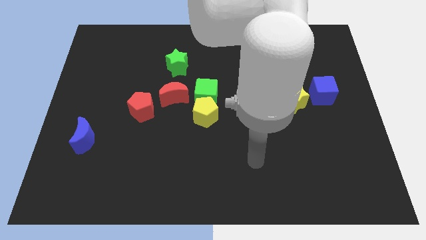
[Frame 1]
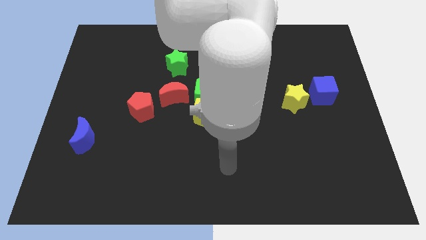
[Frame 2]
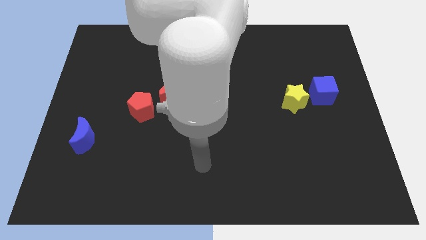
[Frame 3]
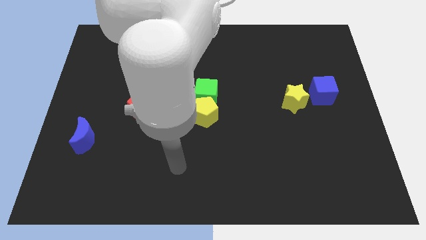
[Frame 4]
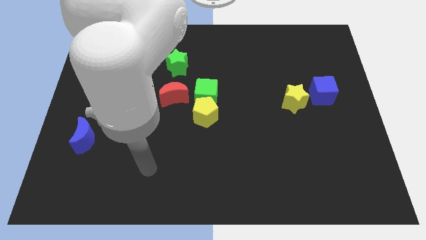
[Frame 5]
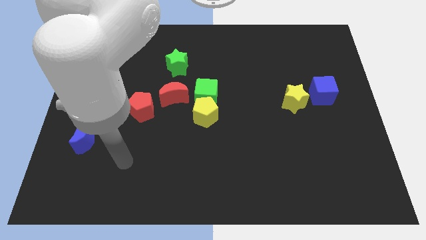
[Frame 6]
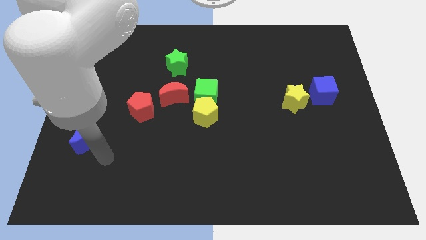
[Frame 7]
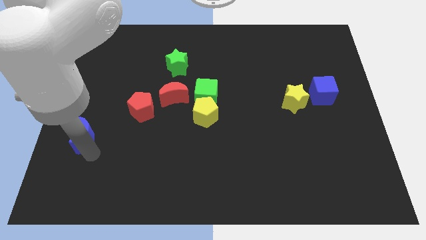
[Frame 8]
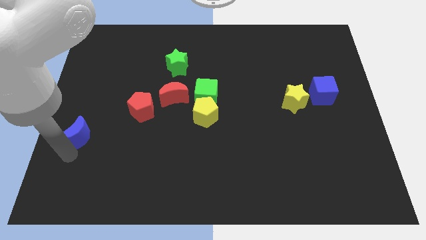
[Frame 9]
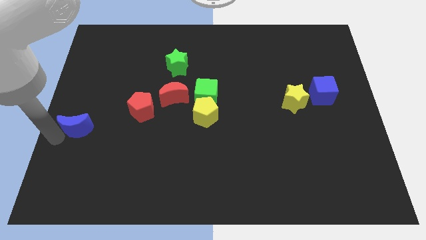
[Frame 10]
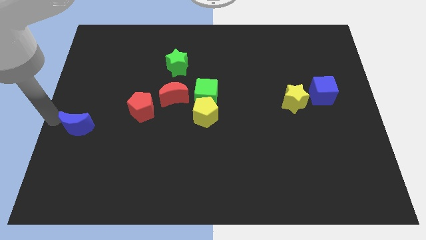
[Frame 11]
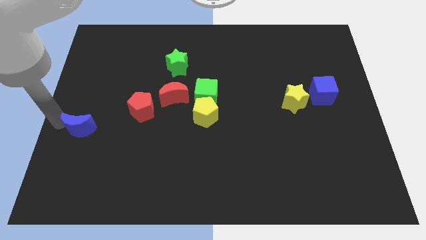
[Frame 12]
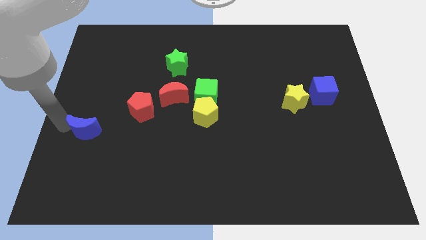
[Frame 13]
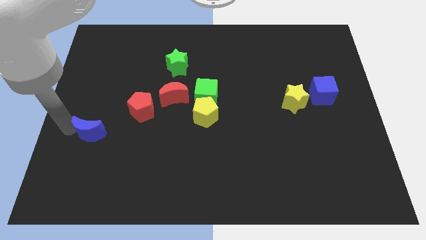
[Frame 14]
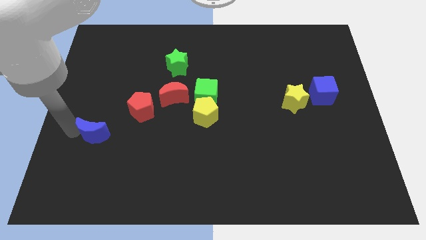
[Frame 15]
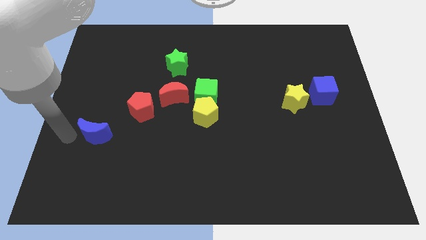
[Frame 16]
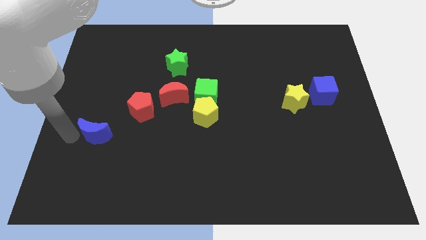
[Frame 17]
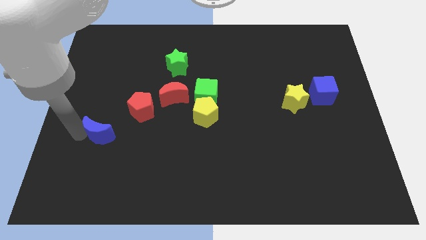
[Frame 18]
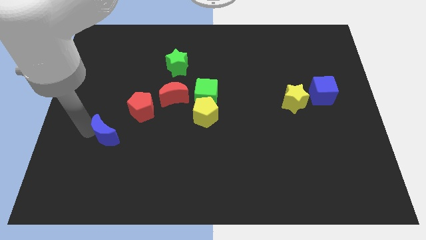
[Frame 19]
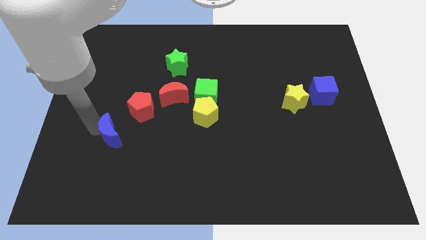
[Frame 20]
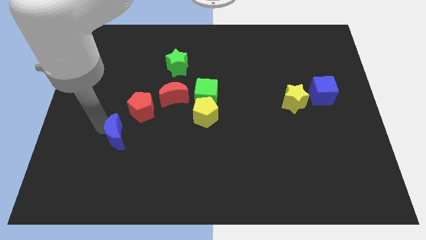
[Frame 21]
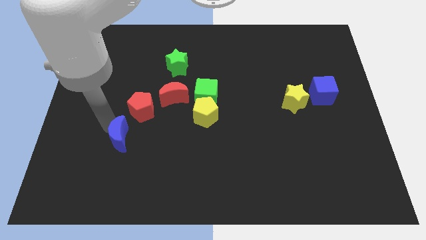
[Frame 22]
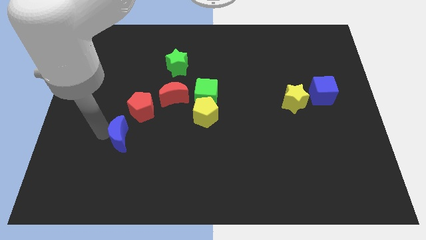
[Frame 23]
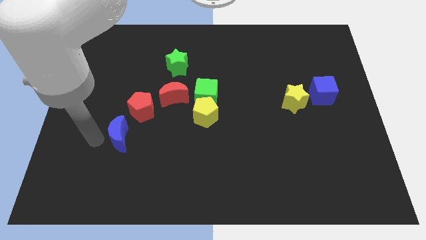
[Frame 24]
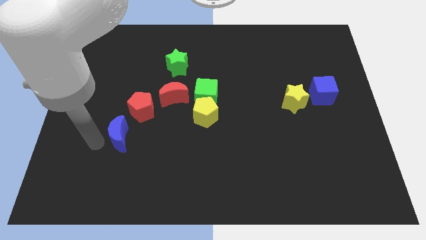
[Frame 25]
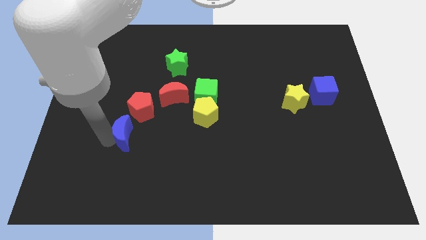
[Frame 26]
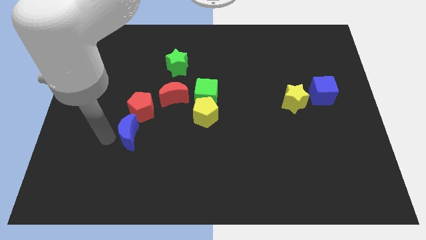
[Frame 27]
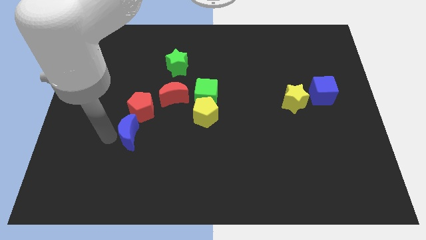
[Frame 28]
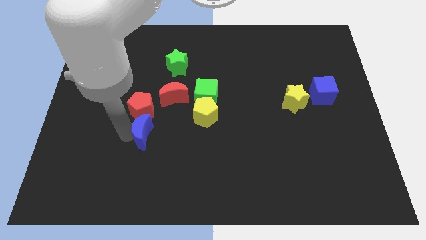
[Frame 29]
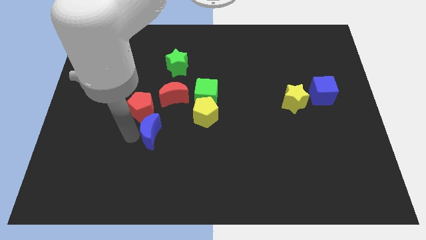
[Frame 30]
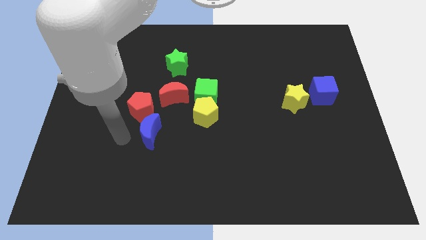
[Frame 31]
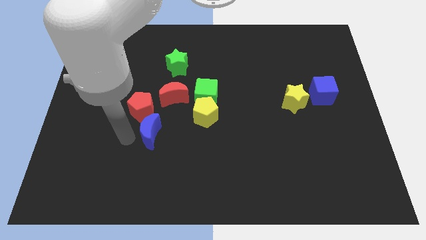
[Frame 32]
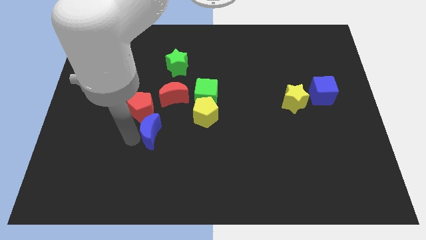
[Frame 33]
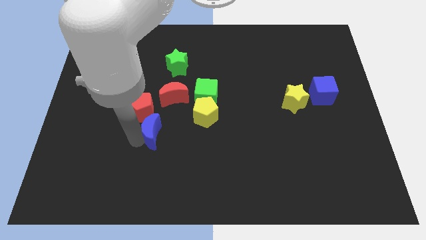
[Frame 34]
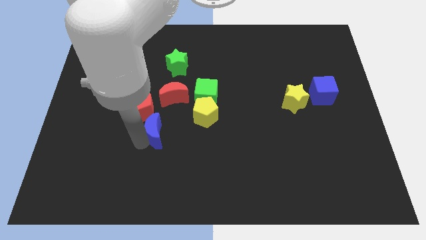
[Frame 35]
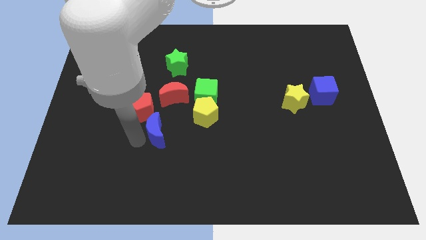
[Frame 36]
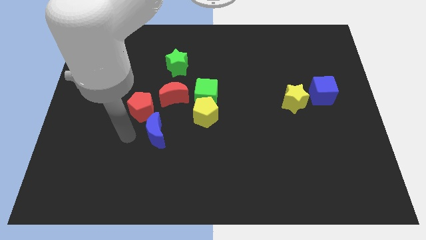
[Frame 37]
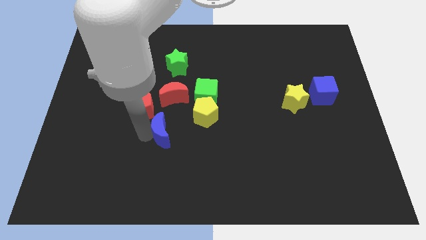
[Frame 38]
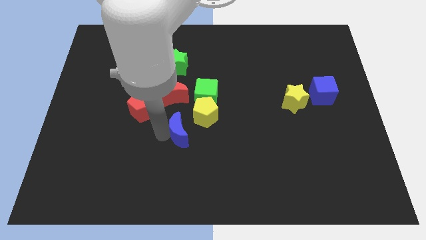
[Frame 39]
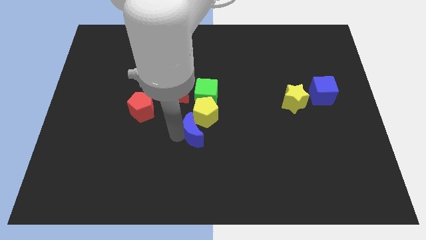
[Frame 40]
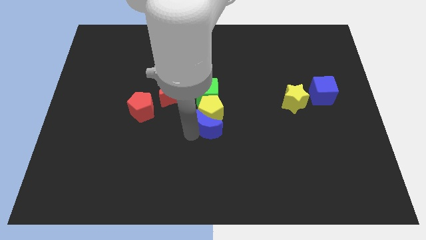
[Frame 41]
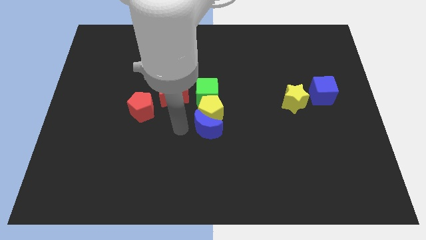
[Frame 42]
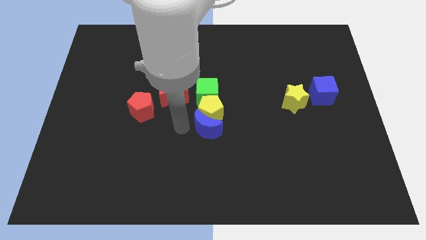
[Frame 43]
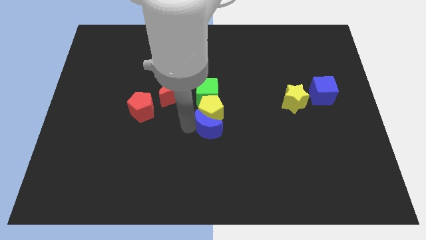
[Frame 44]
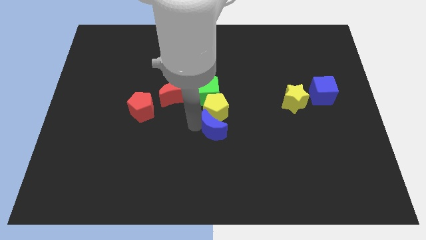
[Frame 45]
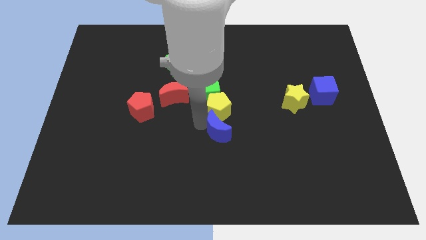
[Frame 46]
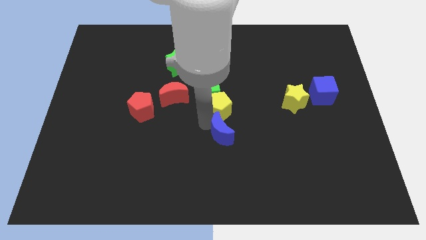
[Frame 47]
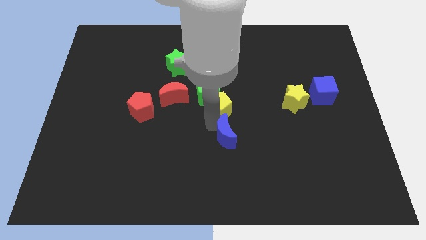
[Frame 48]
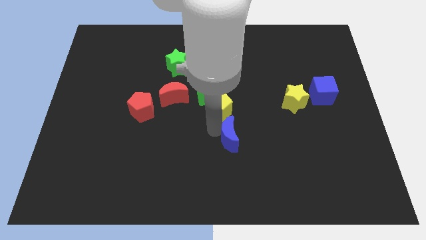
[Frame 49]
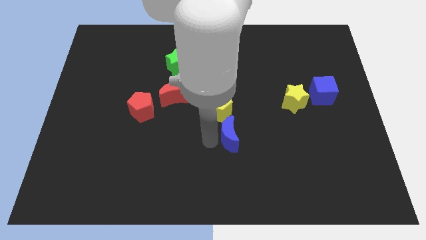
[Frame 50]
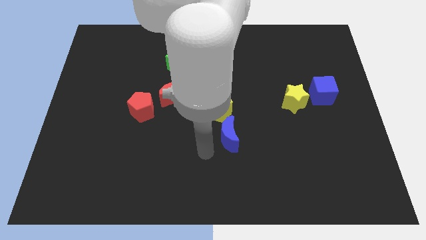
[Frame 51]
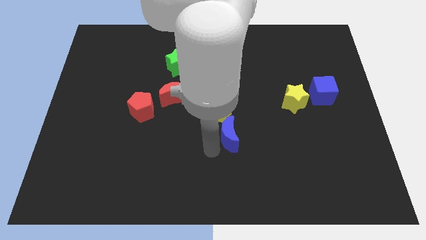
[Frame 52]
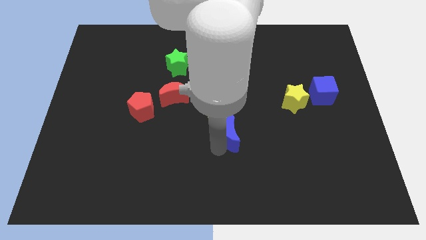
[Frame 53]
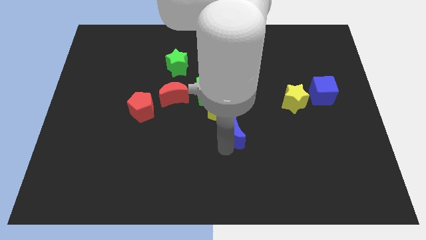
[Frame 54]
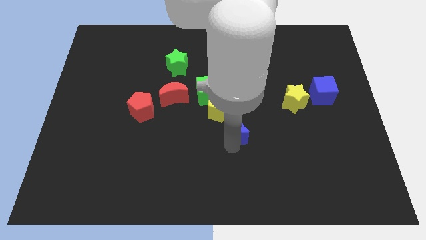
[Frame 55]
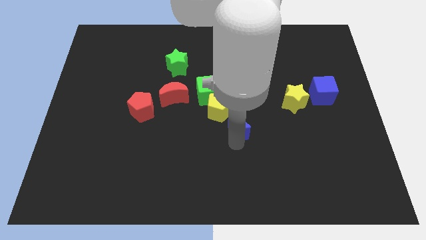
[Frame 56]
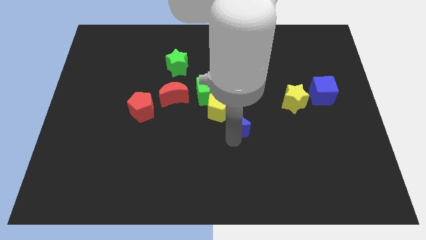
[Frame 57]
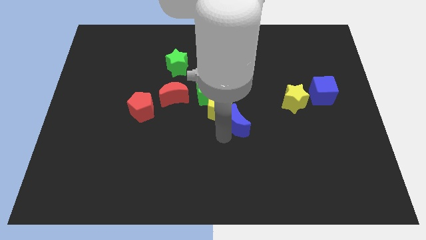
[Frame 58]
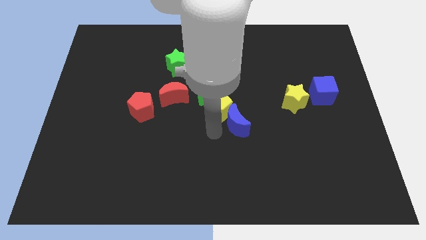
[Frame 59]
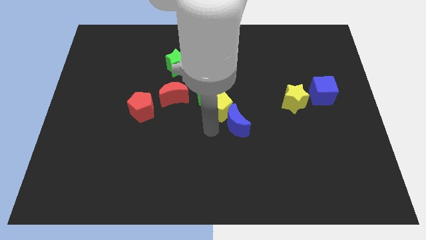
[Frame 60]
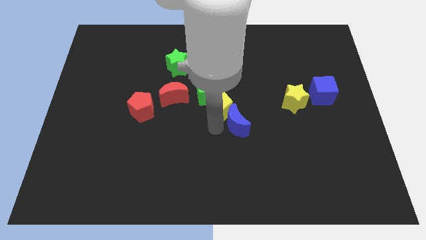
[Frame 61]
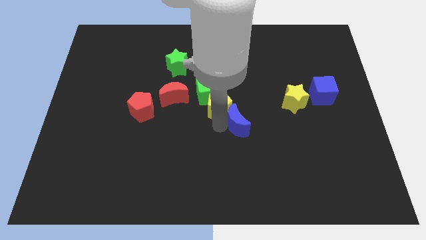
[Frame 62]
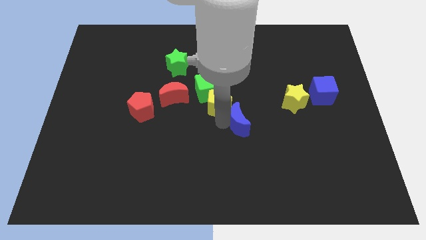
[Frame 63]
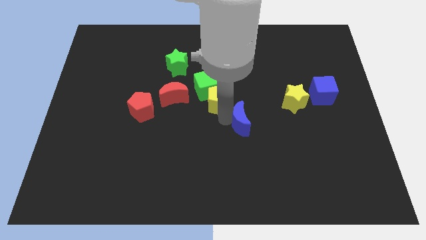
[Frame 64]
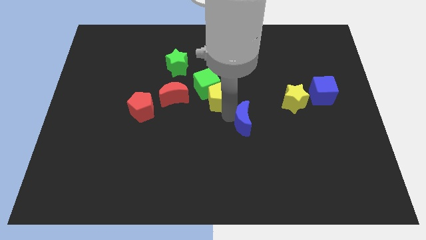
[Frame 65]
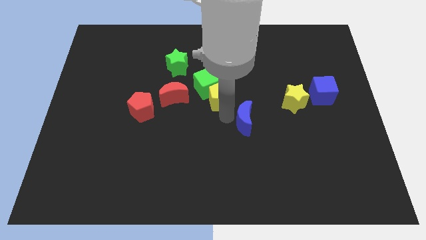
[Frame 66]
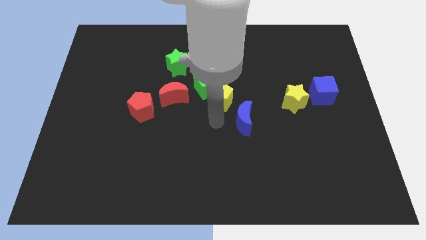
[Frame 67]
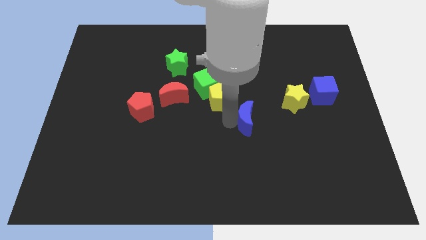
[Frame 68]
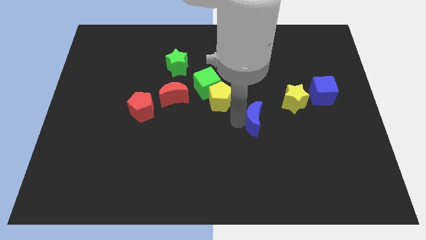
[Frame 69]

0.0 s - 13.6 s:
put the blue moon to the bottom left of the yellow star
